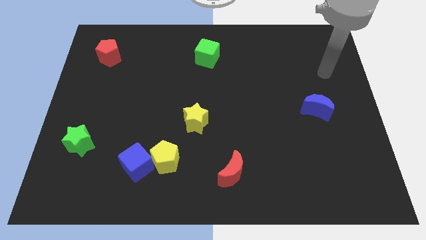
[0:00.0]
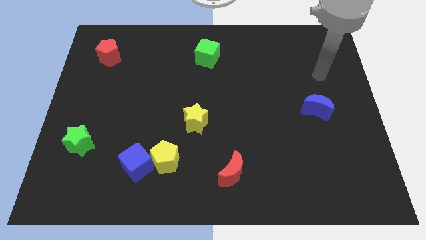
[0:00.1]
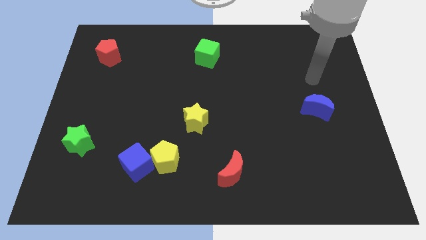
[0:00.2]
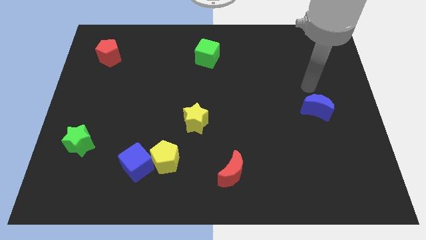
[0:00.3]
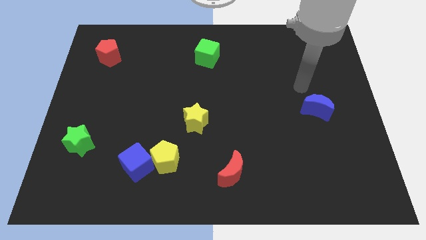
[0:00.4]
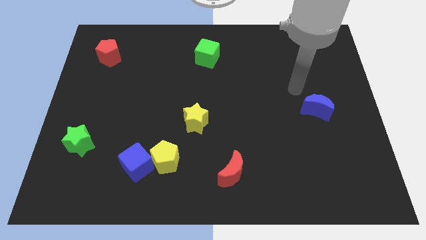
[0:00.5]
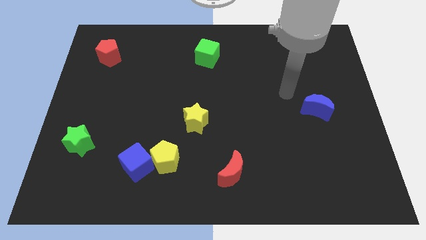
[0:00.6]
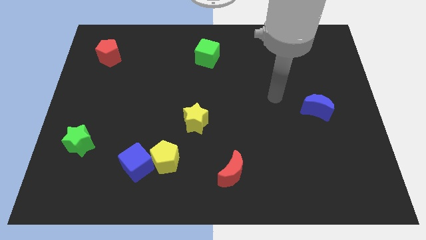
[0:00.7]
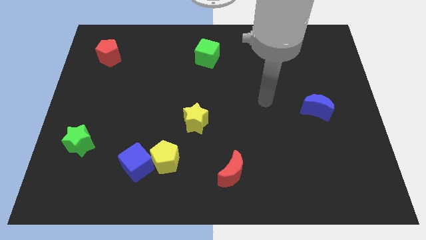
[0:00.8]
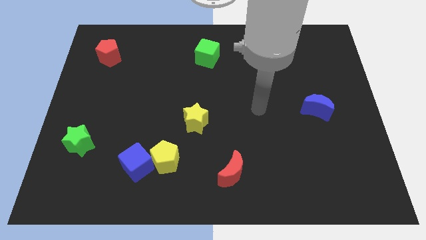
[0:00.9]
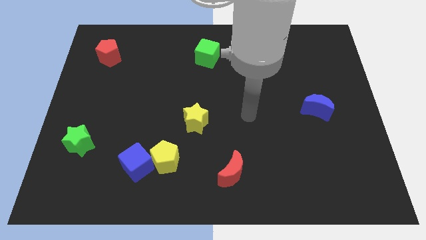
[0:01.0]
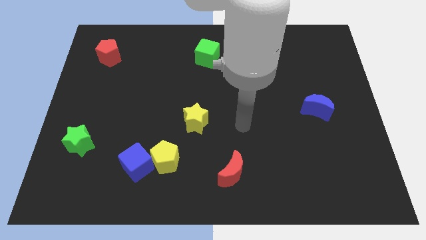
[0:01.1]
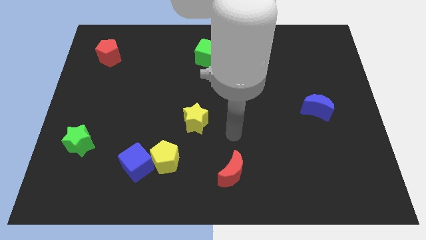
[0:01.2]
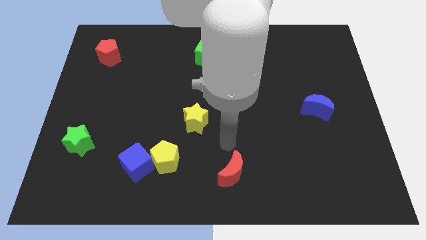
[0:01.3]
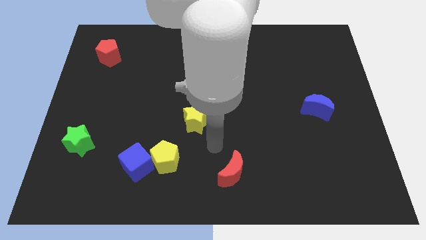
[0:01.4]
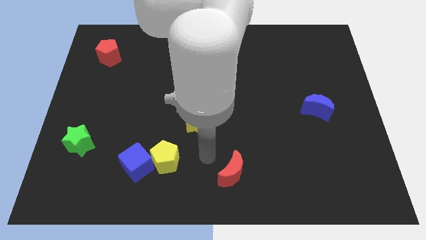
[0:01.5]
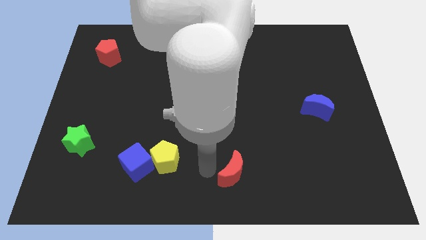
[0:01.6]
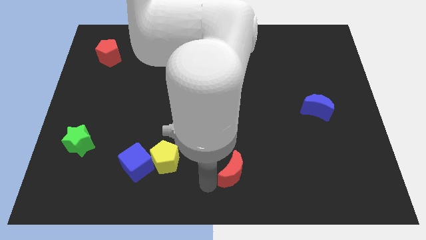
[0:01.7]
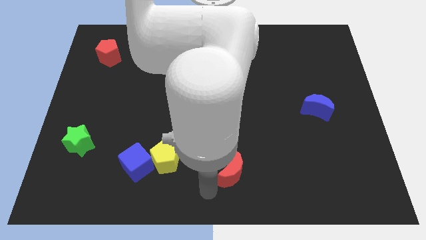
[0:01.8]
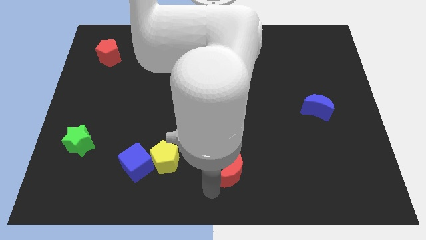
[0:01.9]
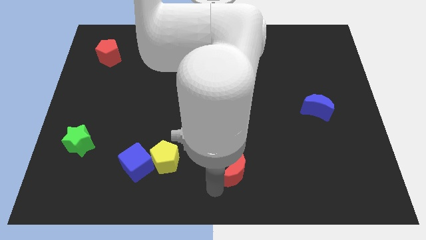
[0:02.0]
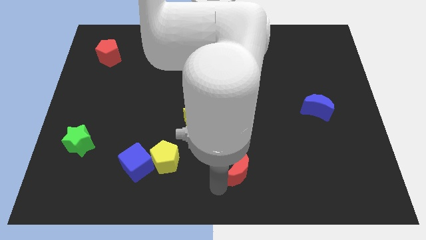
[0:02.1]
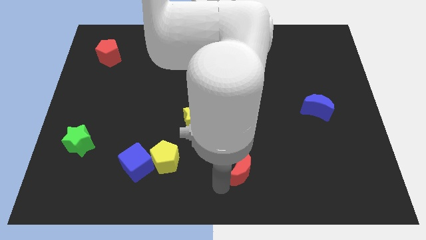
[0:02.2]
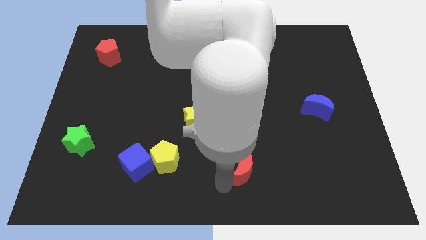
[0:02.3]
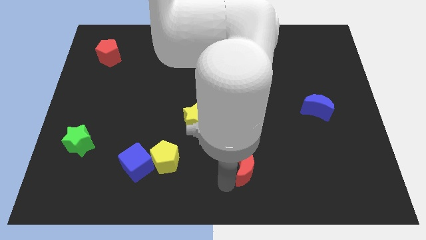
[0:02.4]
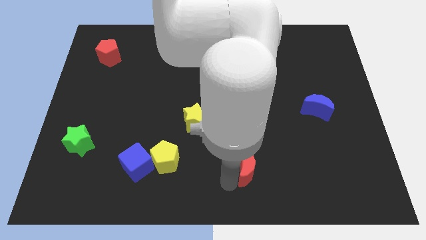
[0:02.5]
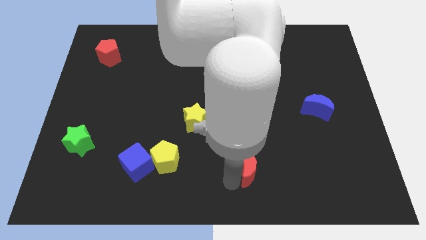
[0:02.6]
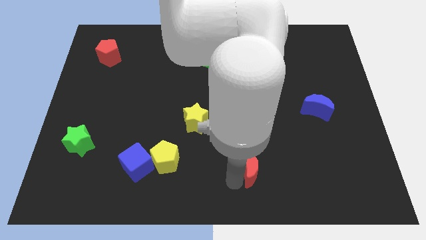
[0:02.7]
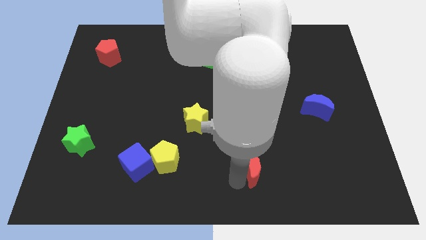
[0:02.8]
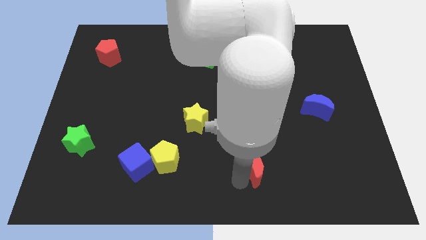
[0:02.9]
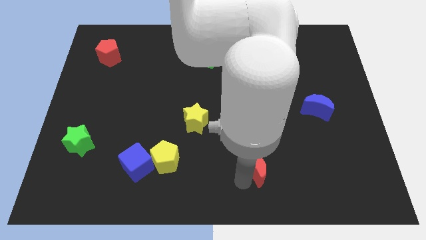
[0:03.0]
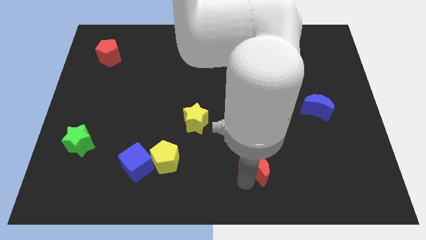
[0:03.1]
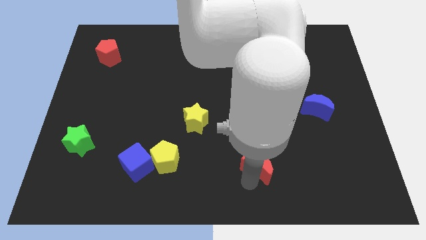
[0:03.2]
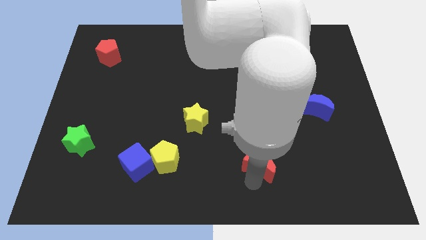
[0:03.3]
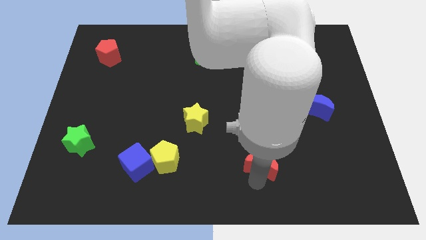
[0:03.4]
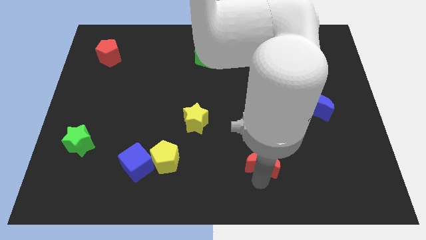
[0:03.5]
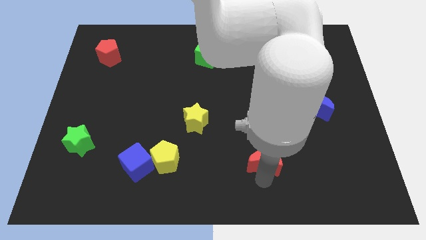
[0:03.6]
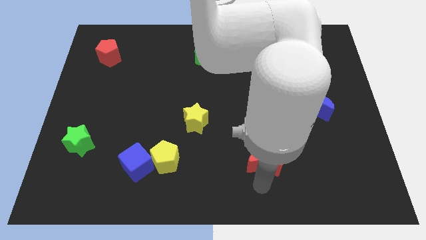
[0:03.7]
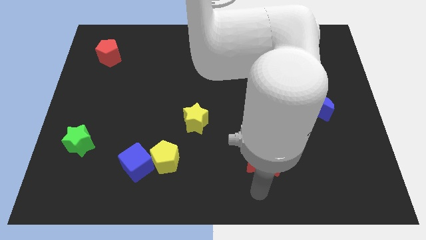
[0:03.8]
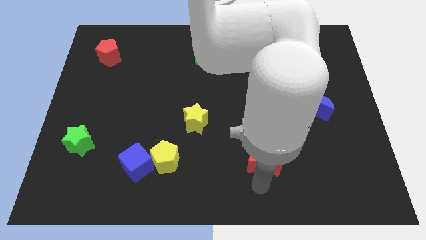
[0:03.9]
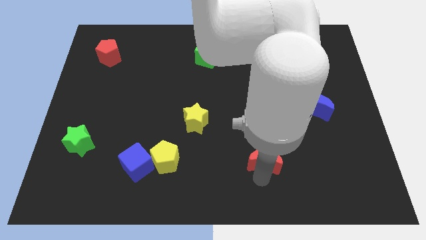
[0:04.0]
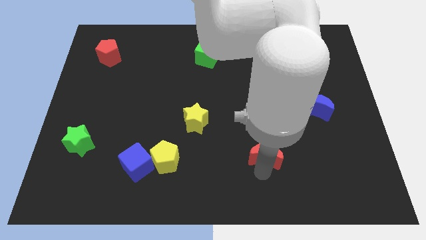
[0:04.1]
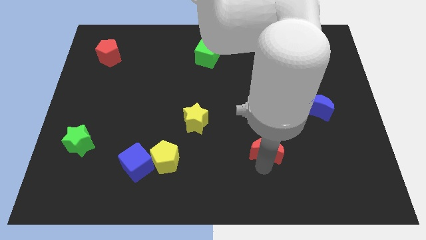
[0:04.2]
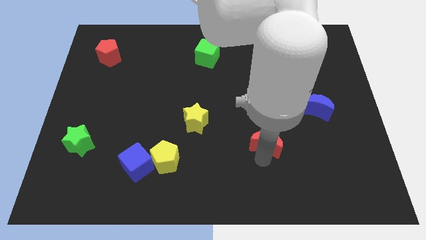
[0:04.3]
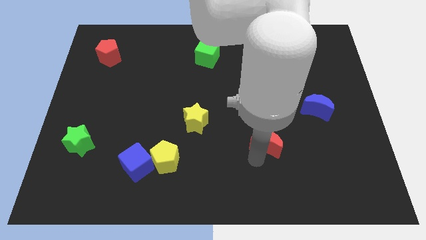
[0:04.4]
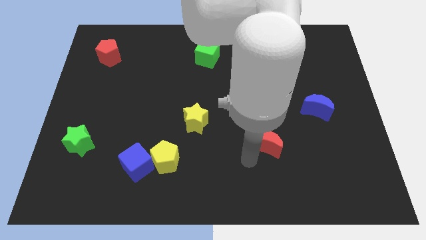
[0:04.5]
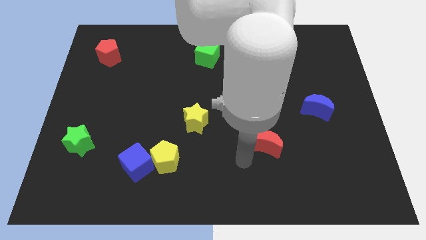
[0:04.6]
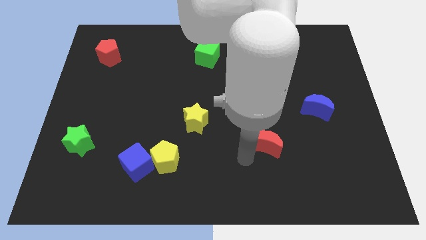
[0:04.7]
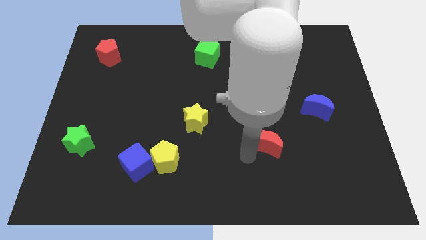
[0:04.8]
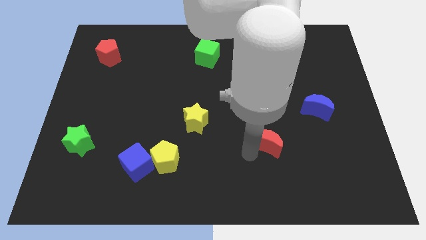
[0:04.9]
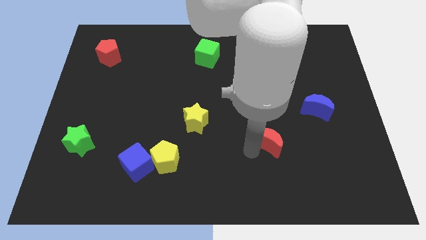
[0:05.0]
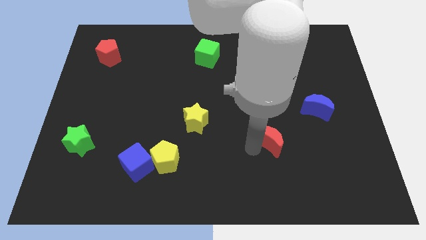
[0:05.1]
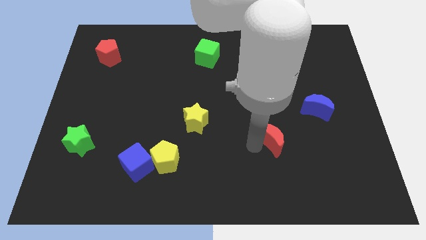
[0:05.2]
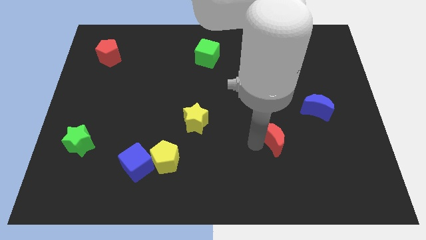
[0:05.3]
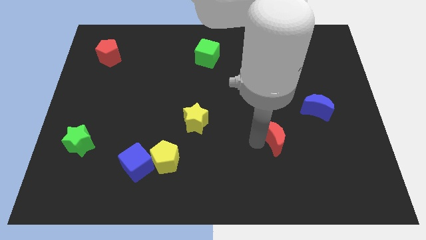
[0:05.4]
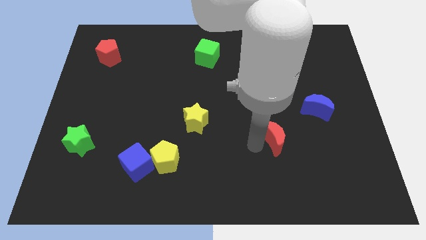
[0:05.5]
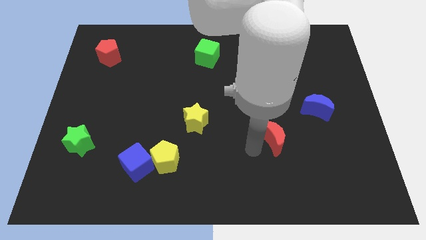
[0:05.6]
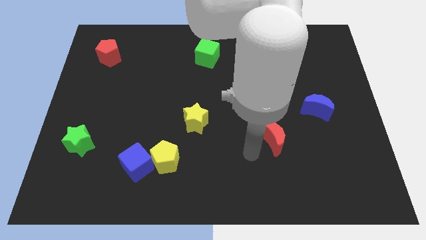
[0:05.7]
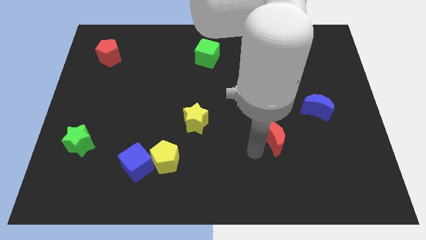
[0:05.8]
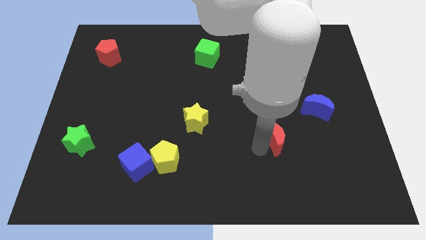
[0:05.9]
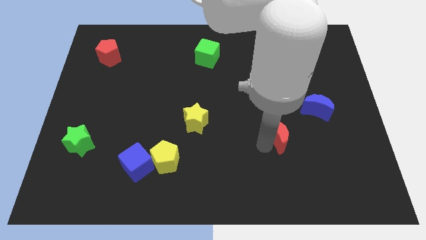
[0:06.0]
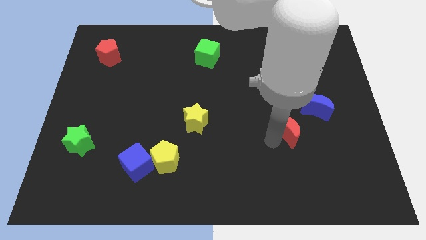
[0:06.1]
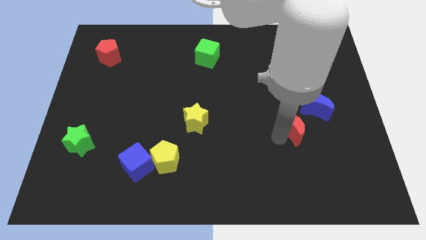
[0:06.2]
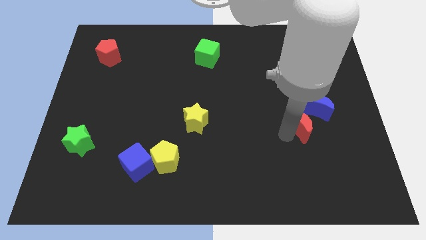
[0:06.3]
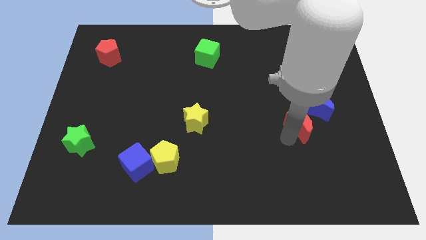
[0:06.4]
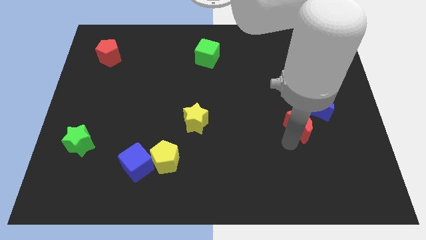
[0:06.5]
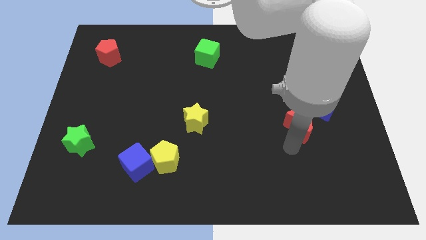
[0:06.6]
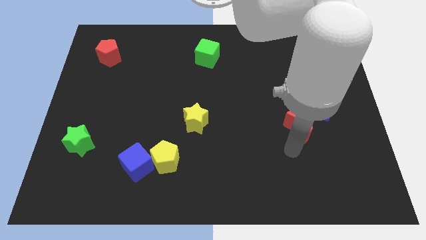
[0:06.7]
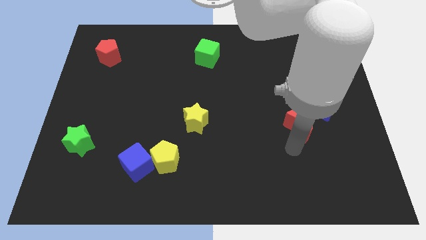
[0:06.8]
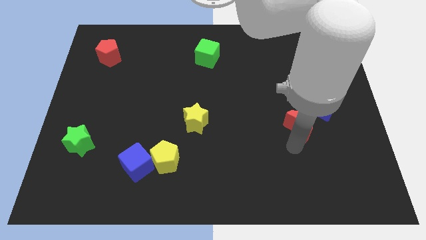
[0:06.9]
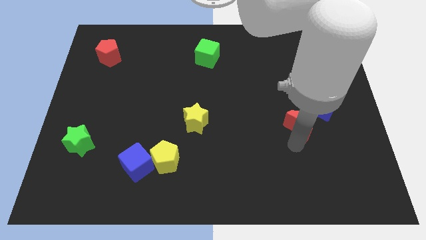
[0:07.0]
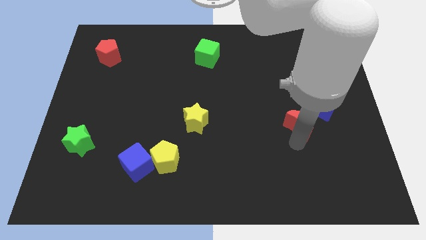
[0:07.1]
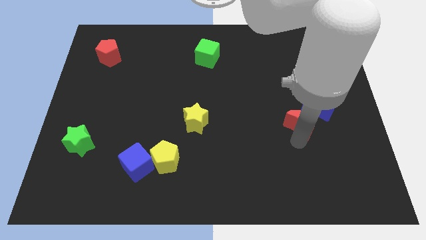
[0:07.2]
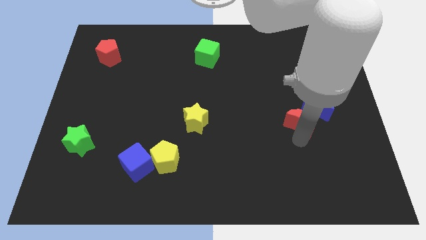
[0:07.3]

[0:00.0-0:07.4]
move the red moon close to the blue moon
